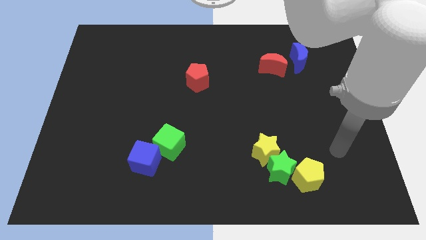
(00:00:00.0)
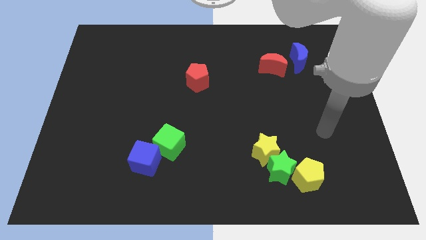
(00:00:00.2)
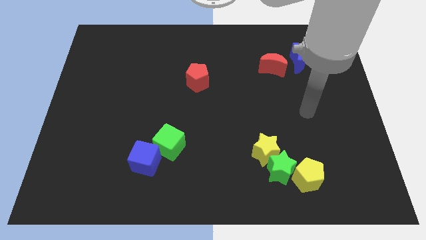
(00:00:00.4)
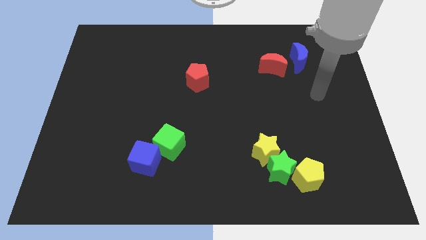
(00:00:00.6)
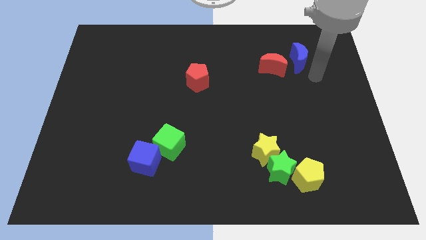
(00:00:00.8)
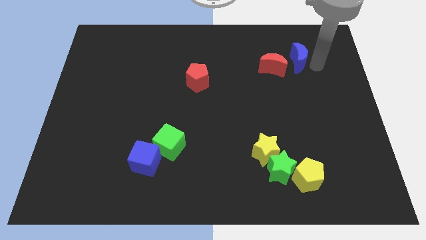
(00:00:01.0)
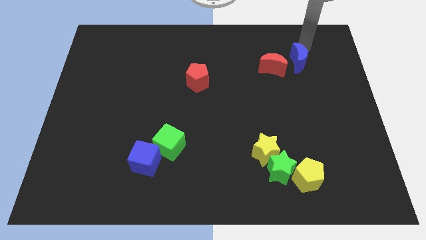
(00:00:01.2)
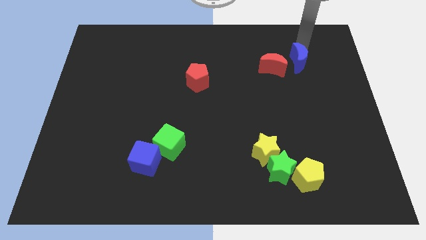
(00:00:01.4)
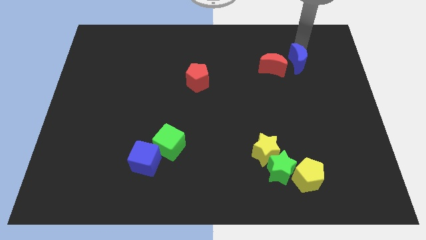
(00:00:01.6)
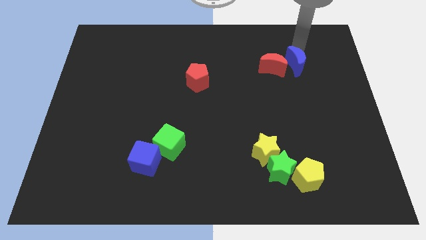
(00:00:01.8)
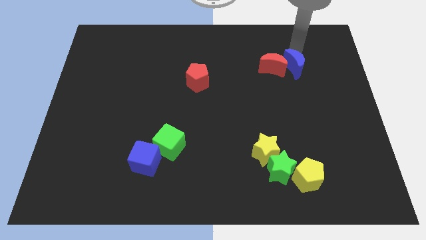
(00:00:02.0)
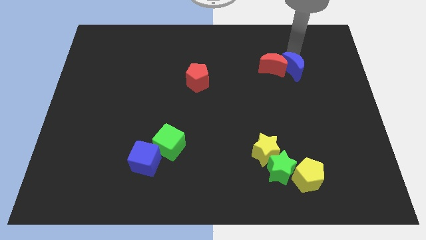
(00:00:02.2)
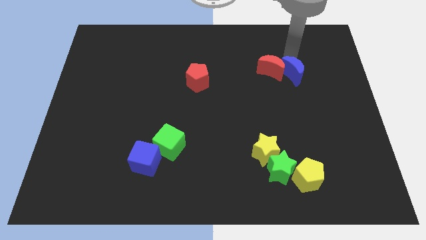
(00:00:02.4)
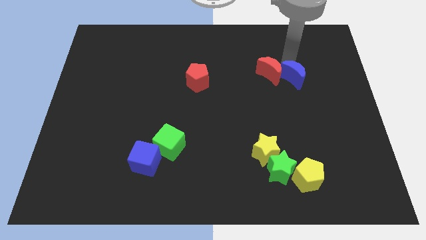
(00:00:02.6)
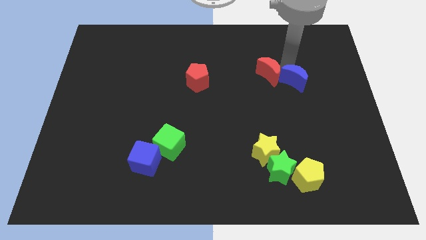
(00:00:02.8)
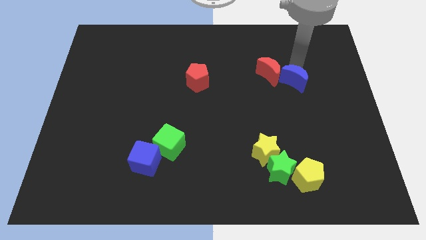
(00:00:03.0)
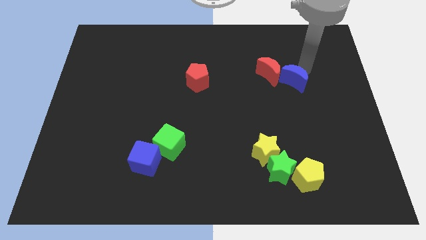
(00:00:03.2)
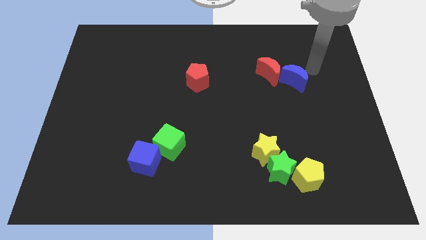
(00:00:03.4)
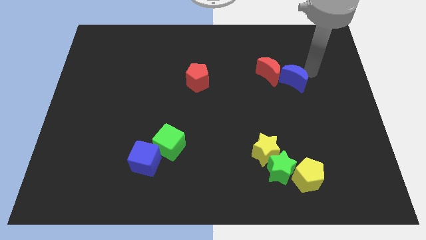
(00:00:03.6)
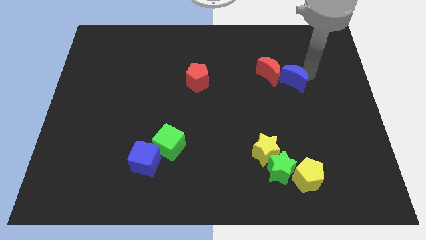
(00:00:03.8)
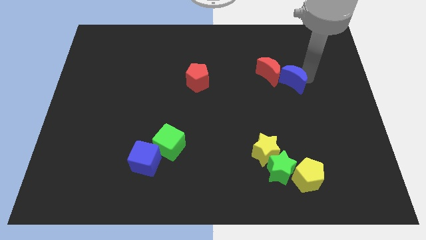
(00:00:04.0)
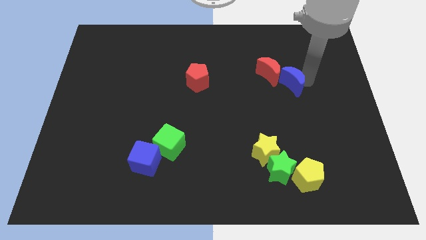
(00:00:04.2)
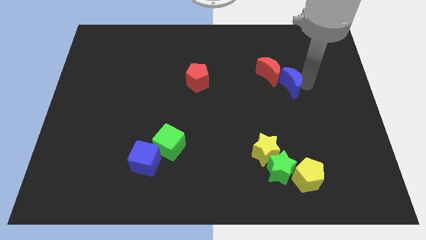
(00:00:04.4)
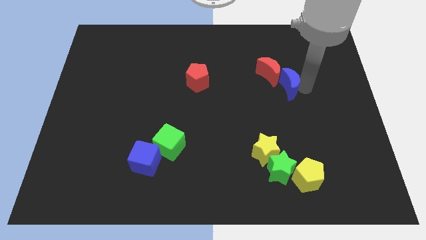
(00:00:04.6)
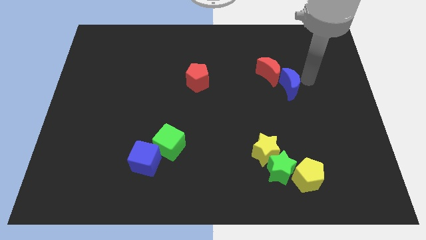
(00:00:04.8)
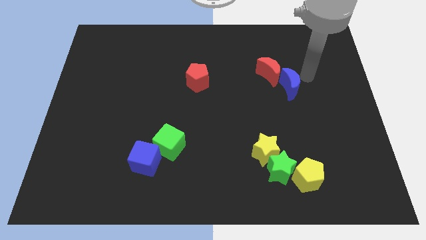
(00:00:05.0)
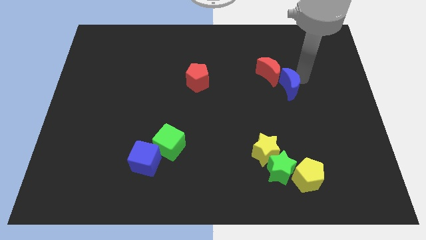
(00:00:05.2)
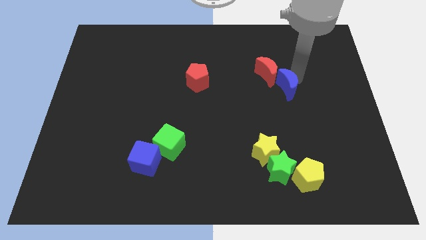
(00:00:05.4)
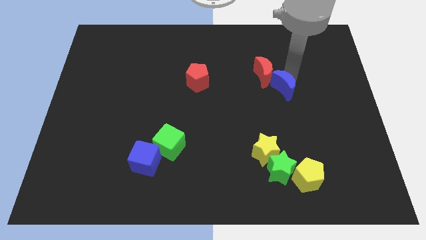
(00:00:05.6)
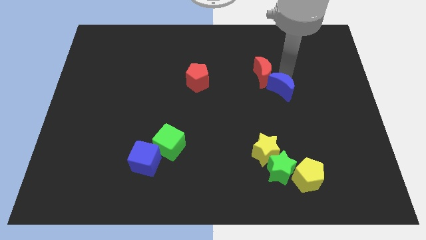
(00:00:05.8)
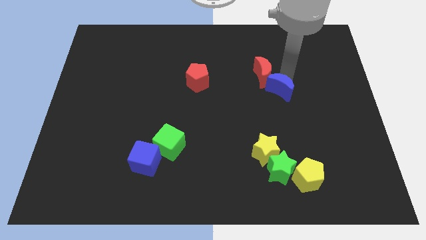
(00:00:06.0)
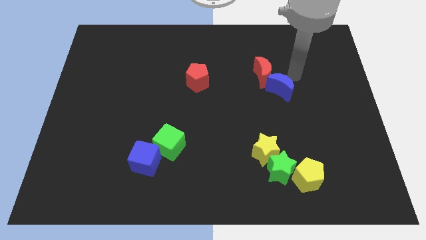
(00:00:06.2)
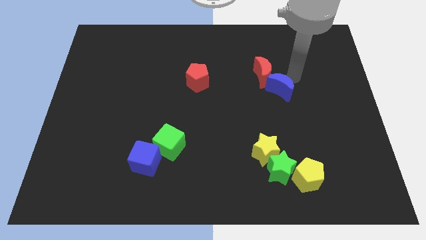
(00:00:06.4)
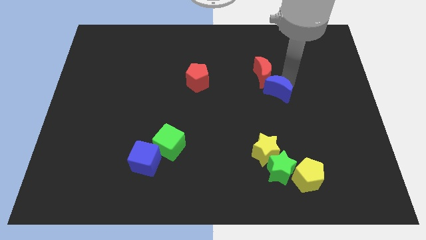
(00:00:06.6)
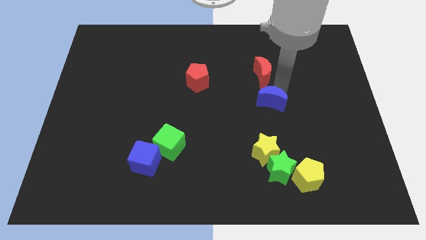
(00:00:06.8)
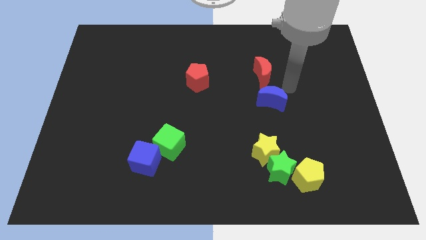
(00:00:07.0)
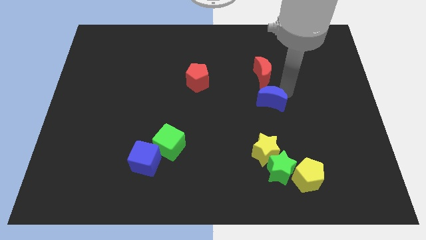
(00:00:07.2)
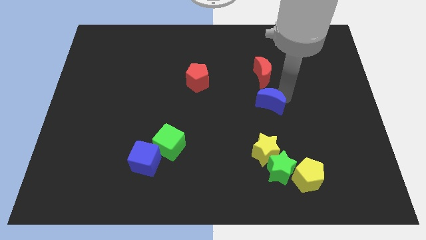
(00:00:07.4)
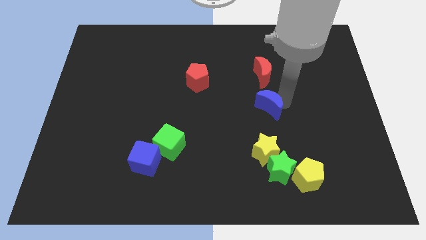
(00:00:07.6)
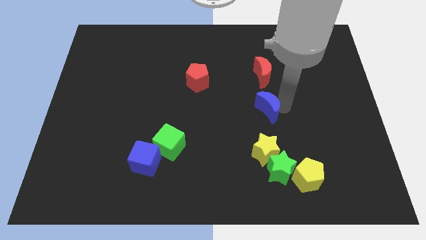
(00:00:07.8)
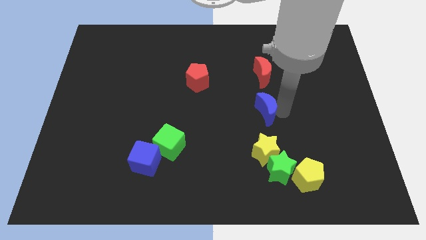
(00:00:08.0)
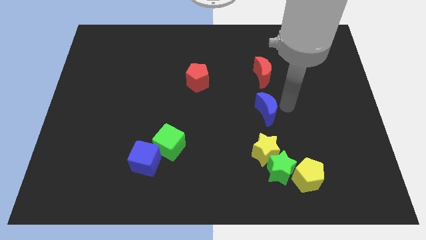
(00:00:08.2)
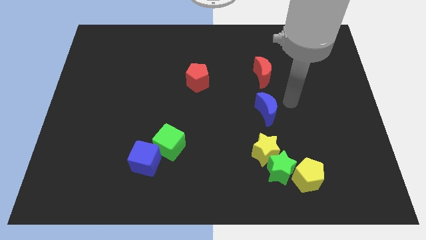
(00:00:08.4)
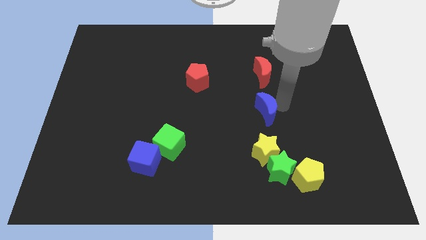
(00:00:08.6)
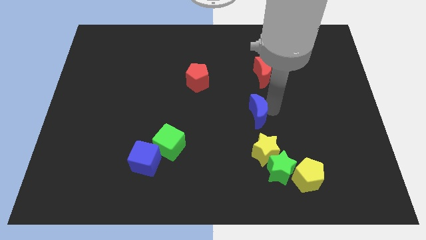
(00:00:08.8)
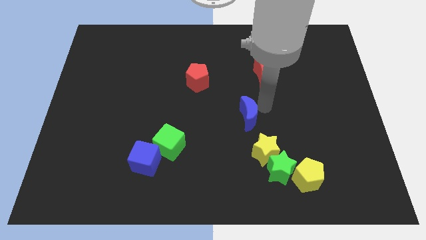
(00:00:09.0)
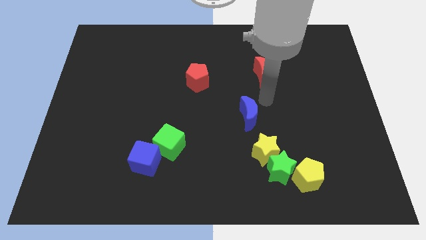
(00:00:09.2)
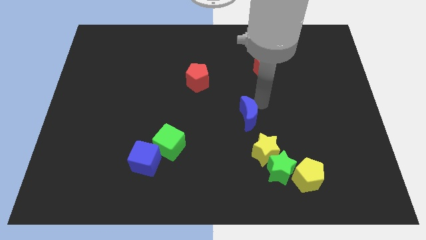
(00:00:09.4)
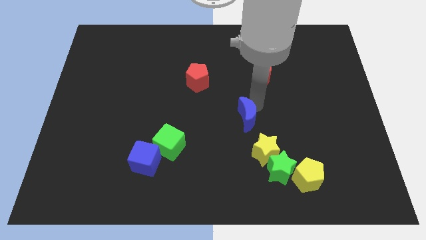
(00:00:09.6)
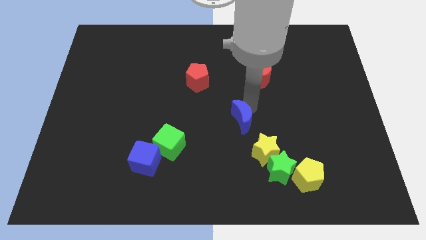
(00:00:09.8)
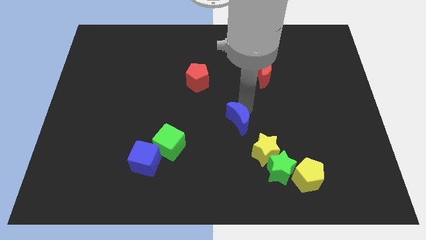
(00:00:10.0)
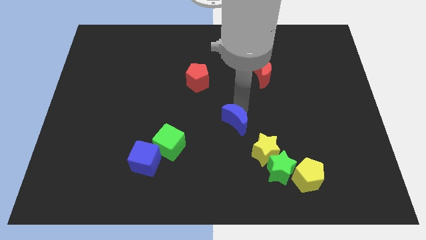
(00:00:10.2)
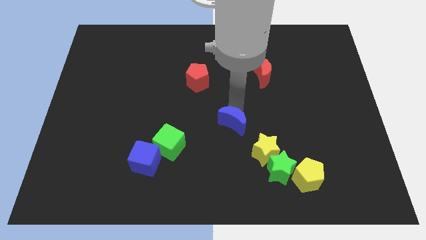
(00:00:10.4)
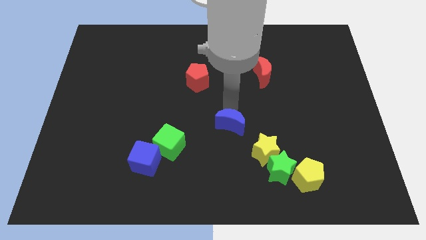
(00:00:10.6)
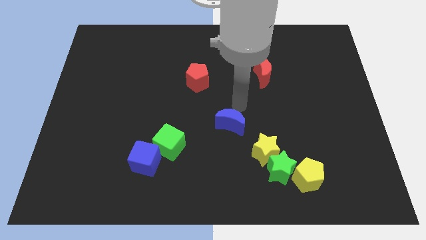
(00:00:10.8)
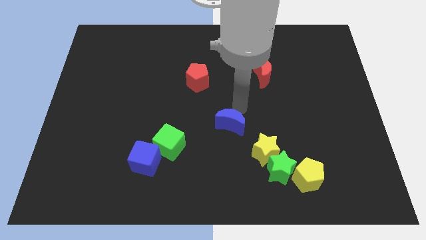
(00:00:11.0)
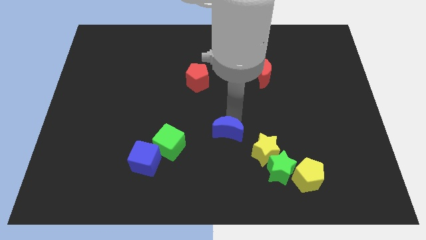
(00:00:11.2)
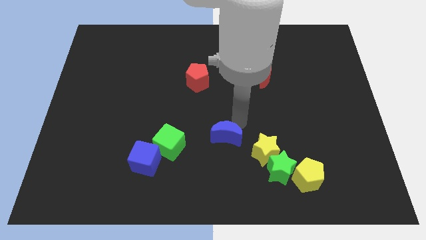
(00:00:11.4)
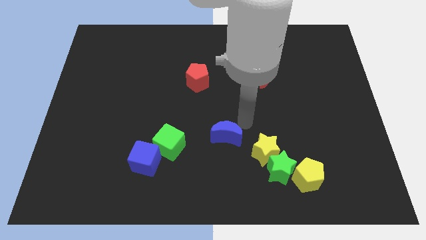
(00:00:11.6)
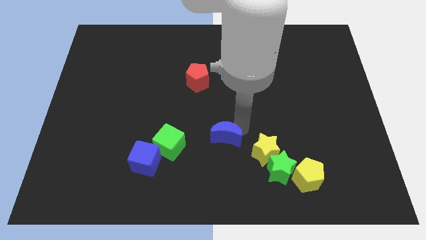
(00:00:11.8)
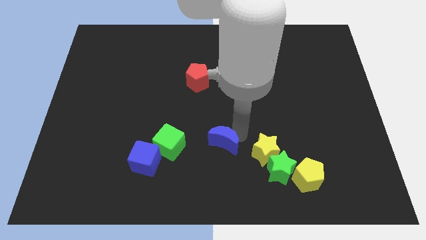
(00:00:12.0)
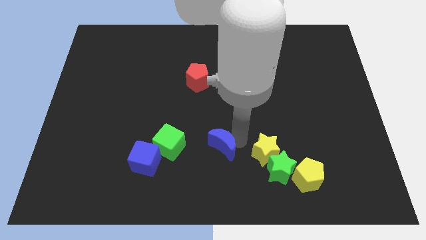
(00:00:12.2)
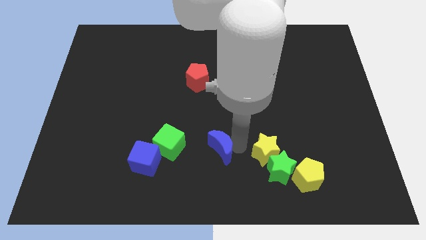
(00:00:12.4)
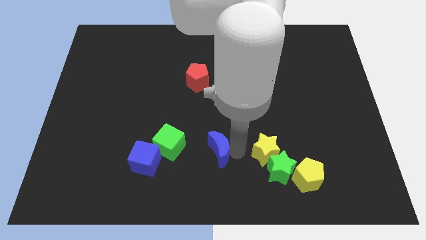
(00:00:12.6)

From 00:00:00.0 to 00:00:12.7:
push the blue moon just right of the blue cube
